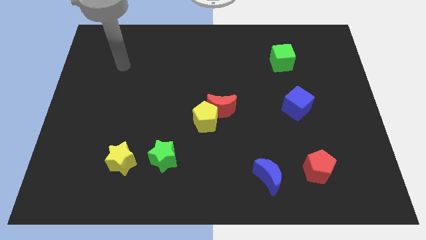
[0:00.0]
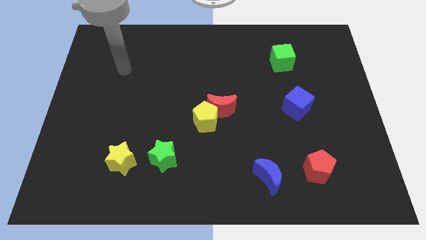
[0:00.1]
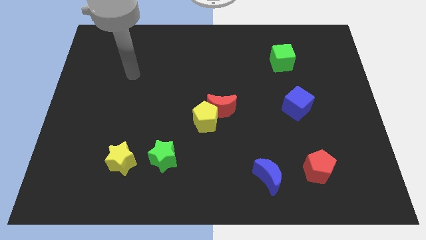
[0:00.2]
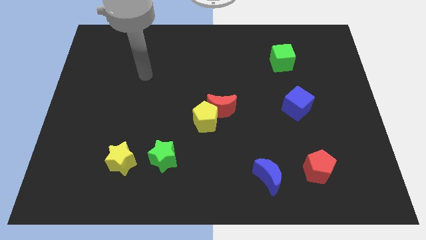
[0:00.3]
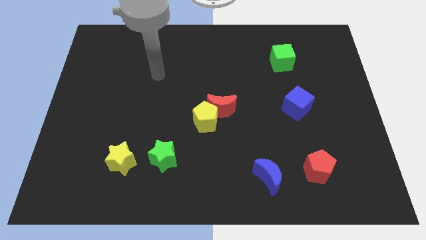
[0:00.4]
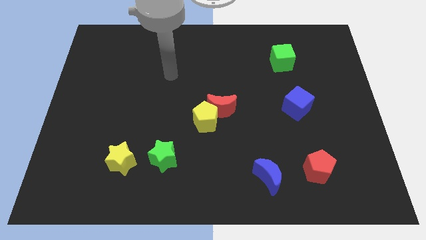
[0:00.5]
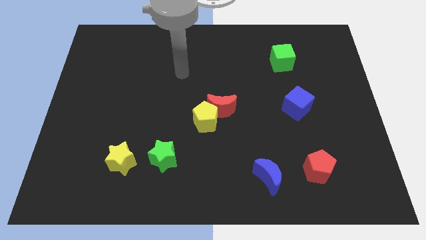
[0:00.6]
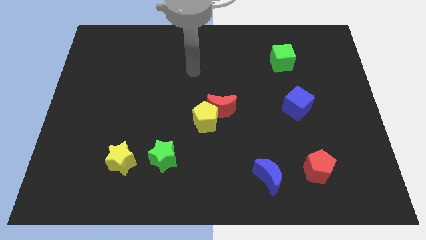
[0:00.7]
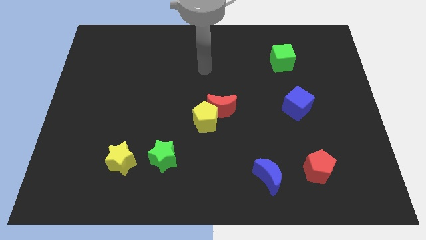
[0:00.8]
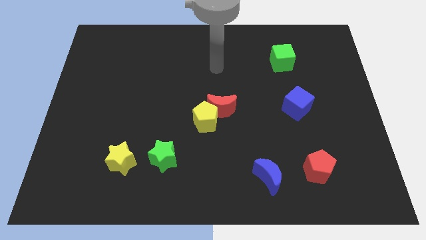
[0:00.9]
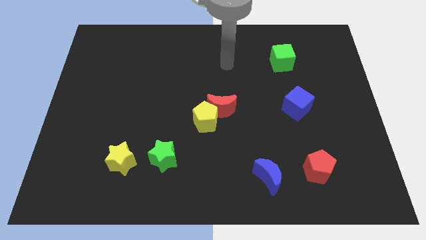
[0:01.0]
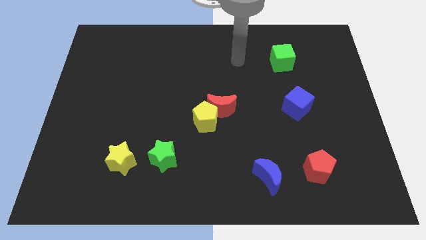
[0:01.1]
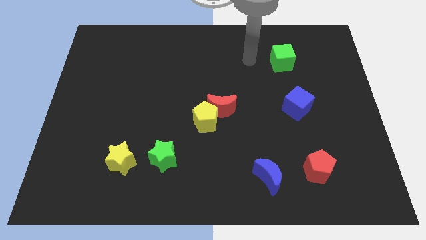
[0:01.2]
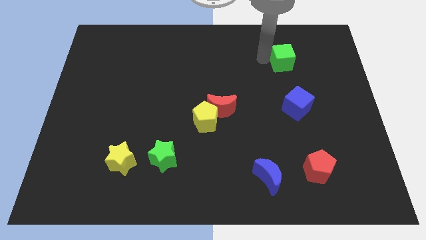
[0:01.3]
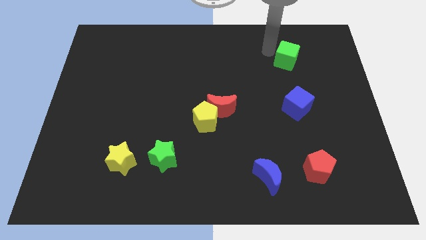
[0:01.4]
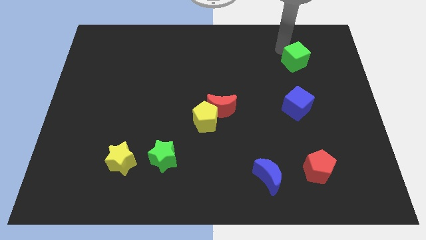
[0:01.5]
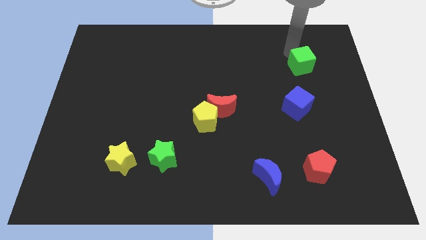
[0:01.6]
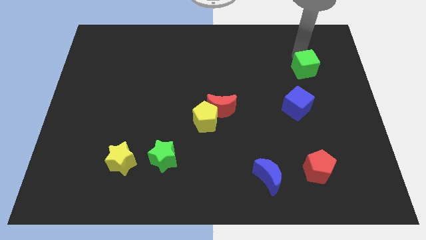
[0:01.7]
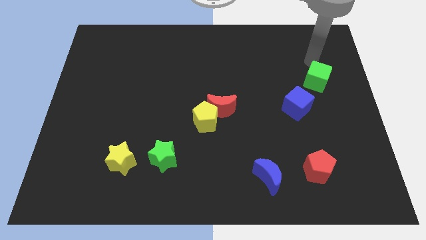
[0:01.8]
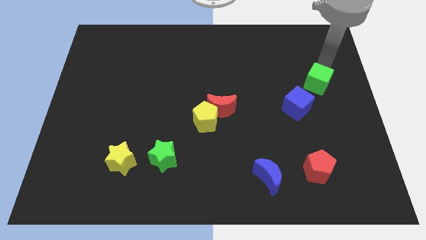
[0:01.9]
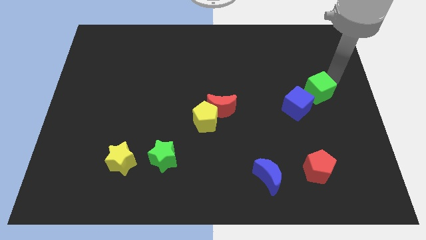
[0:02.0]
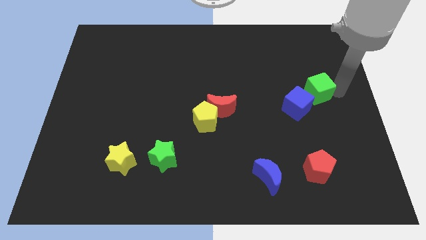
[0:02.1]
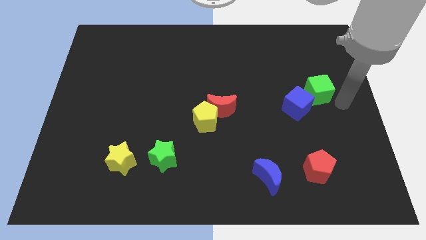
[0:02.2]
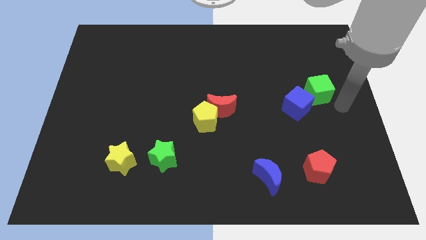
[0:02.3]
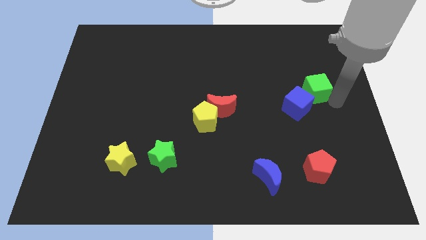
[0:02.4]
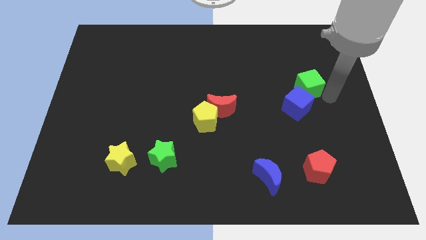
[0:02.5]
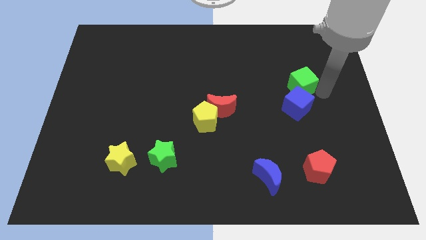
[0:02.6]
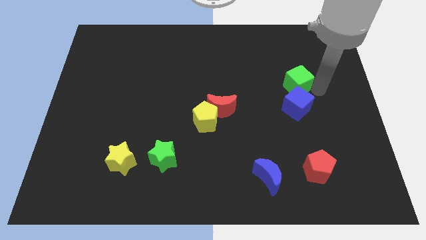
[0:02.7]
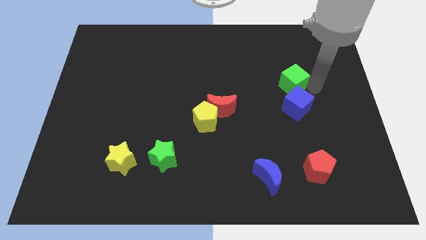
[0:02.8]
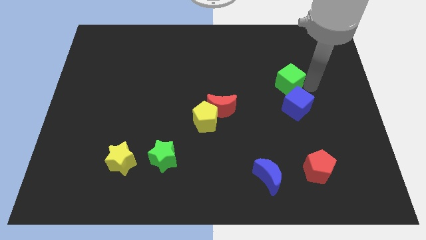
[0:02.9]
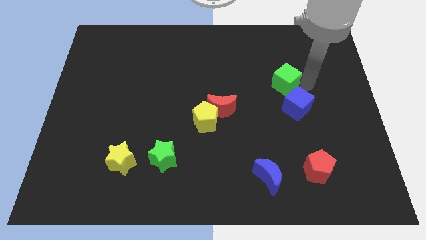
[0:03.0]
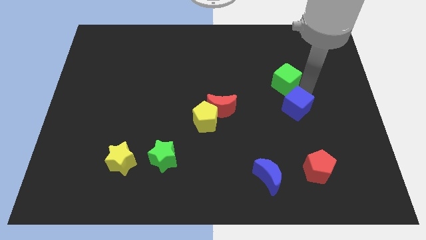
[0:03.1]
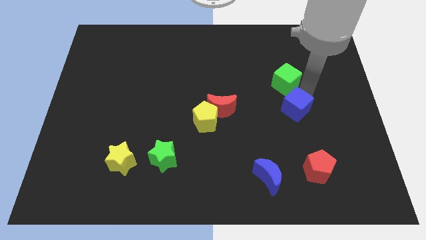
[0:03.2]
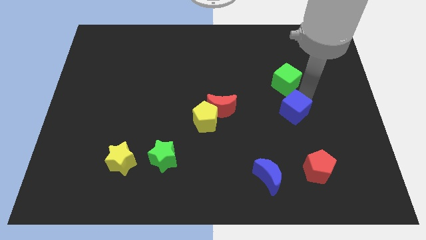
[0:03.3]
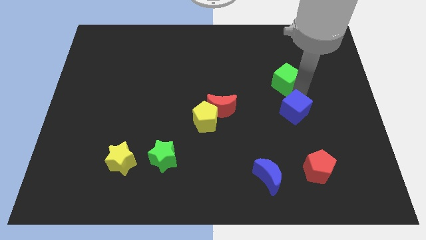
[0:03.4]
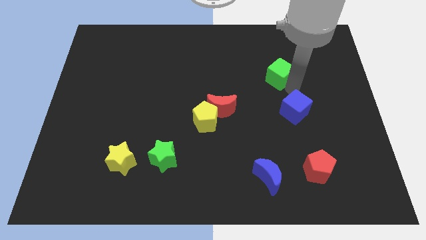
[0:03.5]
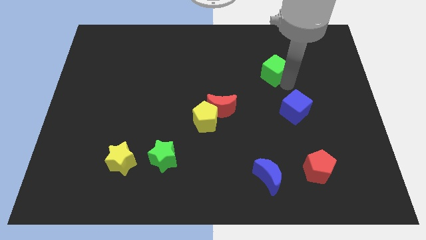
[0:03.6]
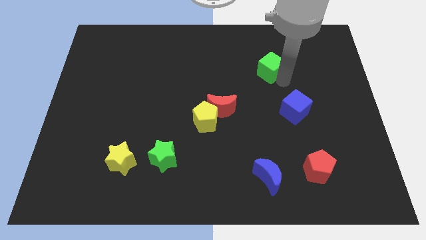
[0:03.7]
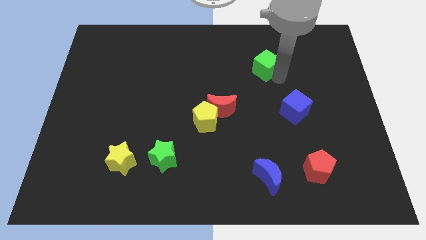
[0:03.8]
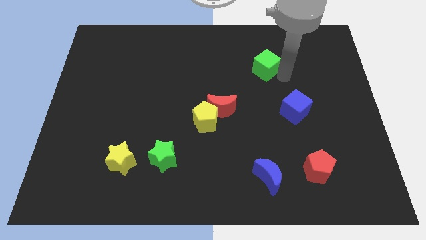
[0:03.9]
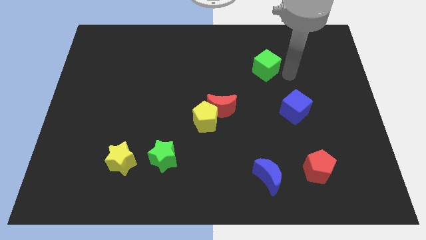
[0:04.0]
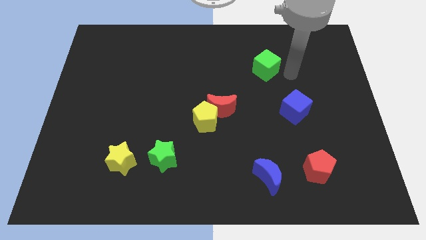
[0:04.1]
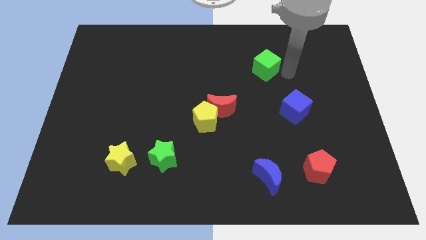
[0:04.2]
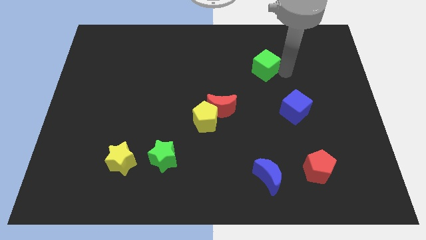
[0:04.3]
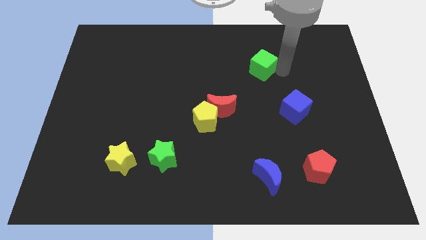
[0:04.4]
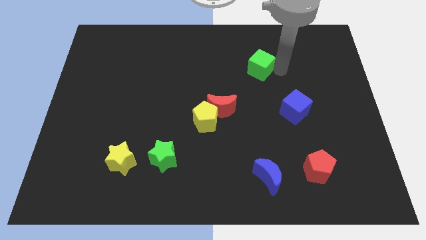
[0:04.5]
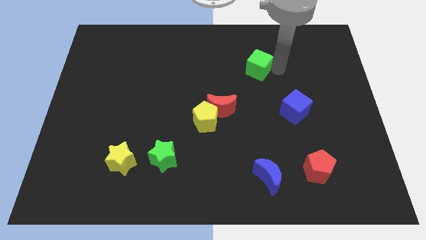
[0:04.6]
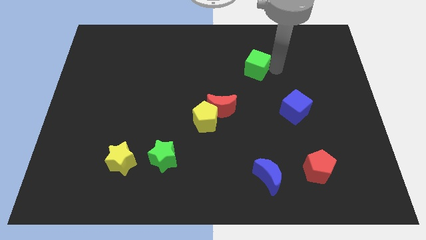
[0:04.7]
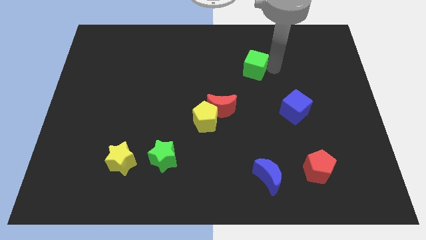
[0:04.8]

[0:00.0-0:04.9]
slightly move the green cube left

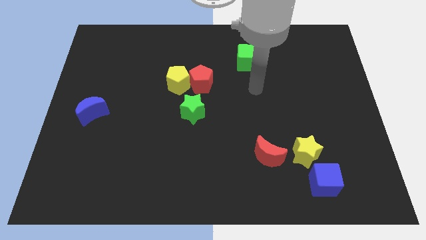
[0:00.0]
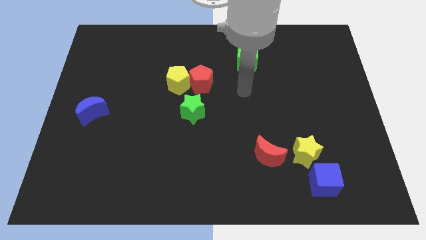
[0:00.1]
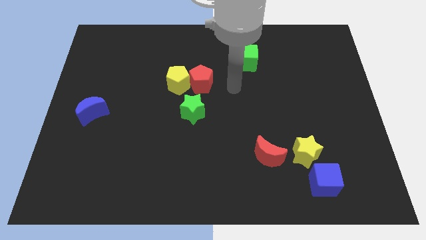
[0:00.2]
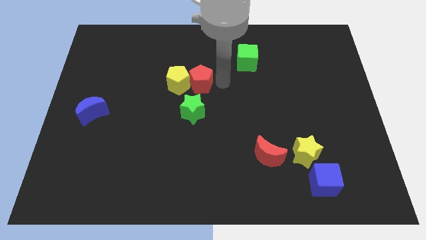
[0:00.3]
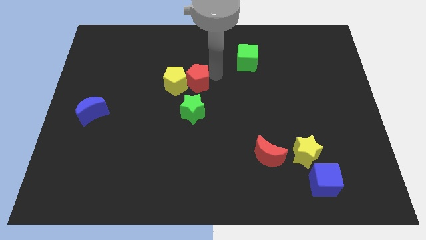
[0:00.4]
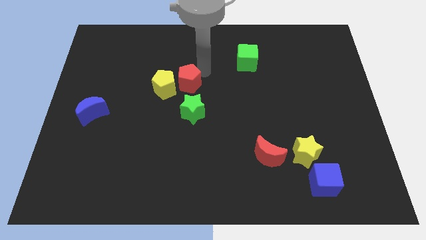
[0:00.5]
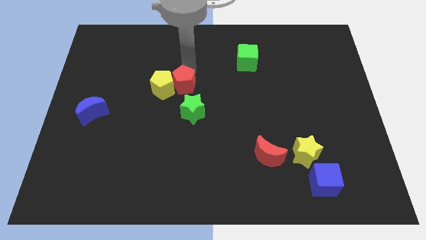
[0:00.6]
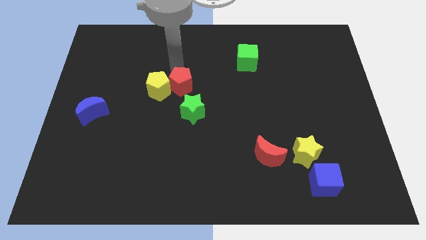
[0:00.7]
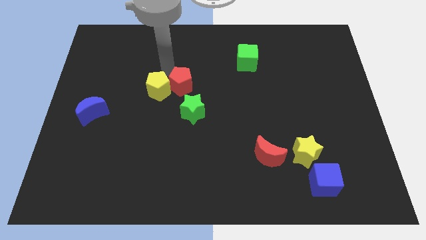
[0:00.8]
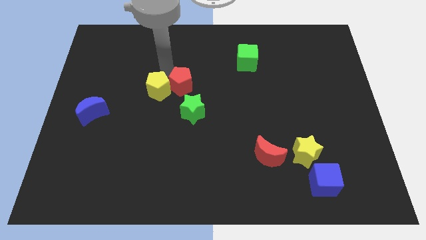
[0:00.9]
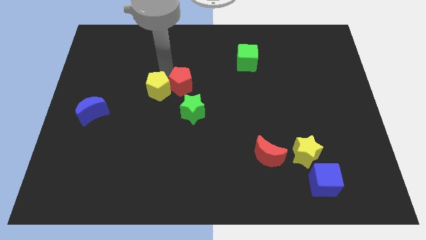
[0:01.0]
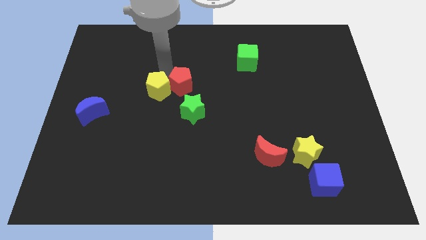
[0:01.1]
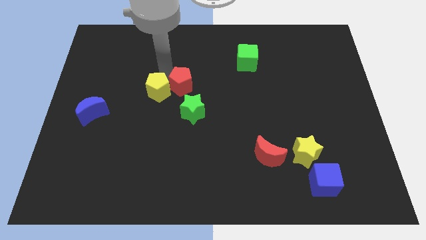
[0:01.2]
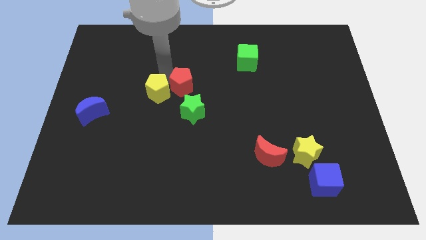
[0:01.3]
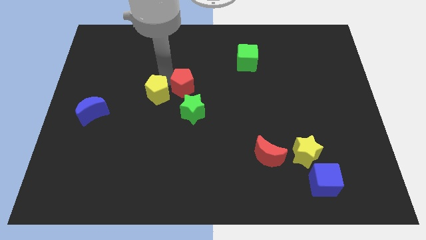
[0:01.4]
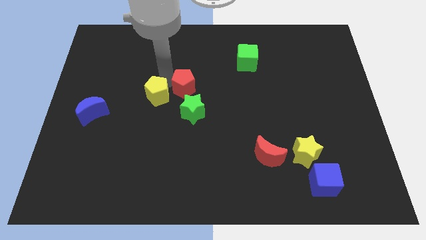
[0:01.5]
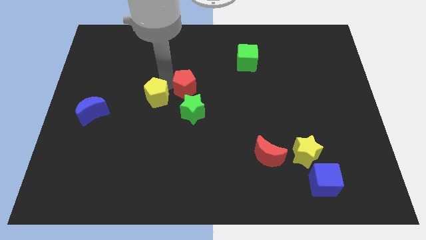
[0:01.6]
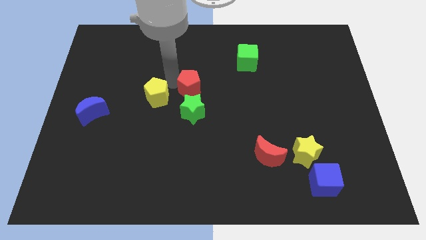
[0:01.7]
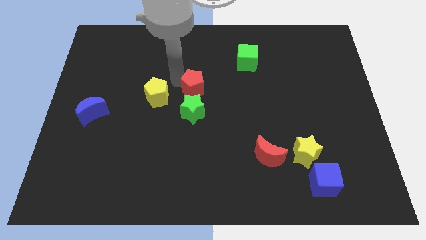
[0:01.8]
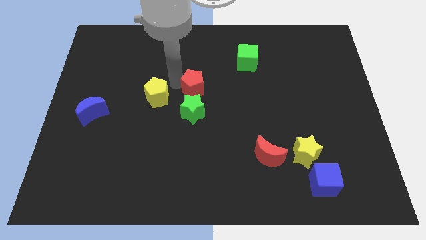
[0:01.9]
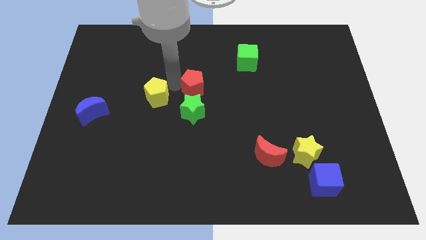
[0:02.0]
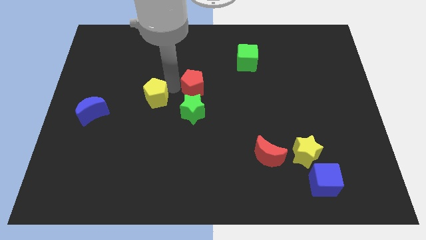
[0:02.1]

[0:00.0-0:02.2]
slide the yellow pentagon downwards and then to the left a little

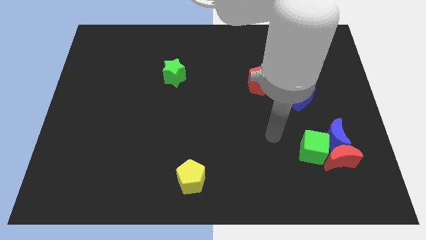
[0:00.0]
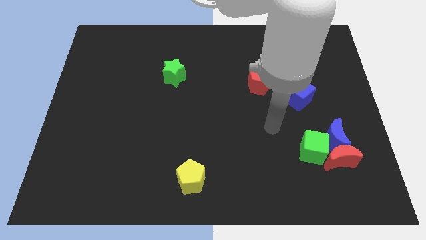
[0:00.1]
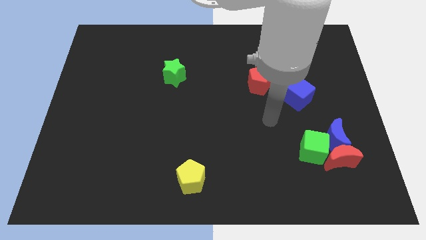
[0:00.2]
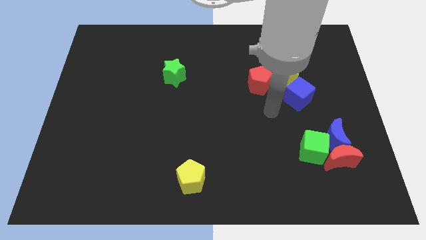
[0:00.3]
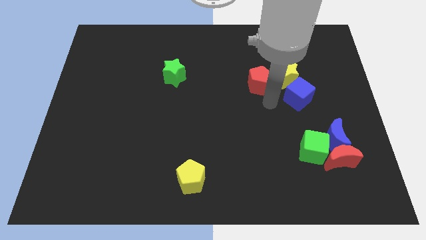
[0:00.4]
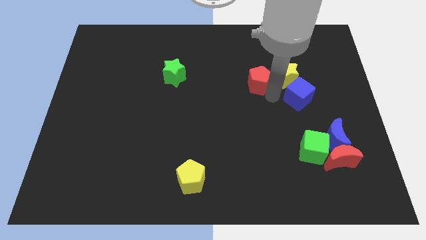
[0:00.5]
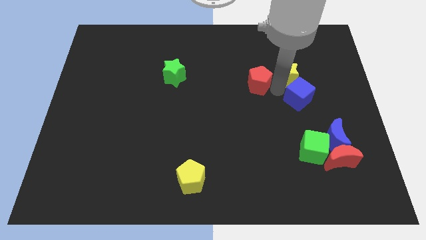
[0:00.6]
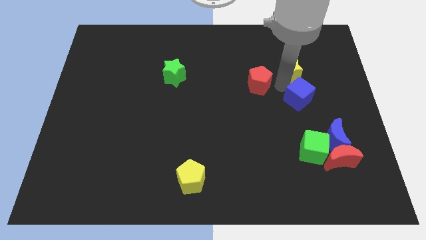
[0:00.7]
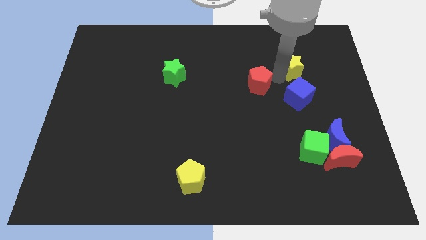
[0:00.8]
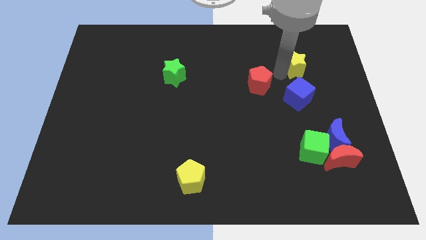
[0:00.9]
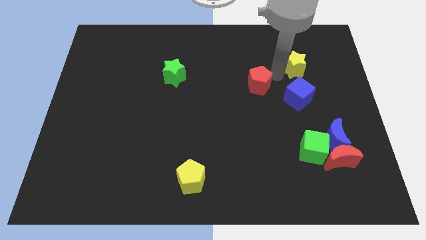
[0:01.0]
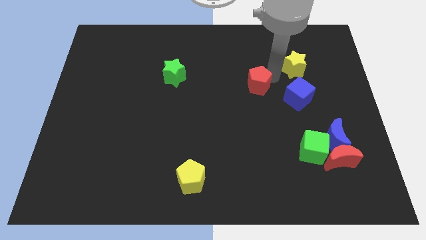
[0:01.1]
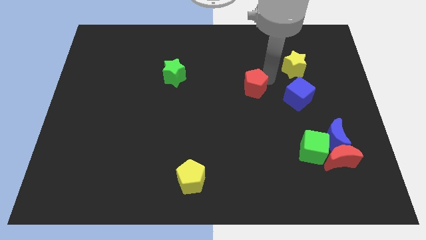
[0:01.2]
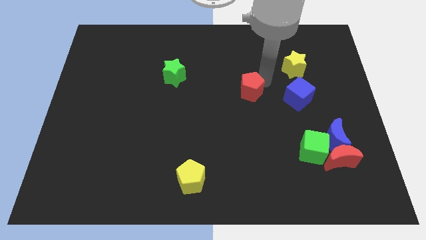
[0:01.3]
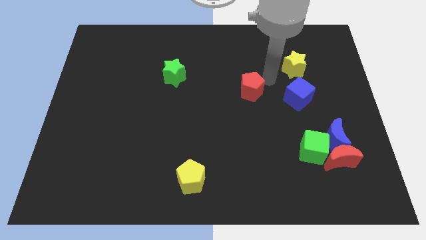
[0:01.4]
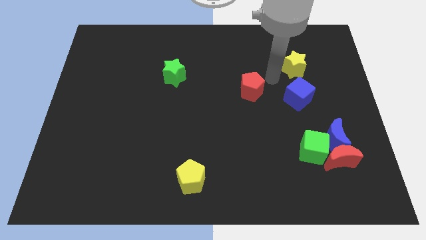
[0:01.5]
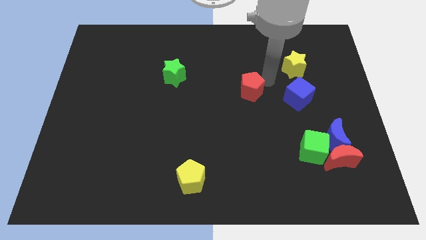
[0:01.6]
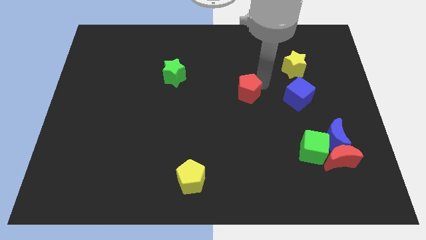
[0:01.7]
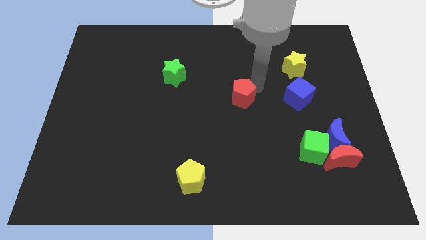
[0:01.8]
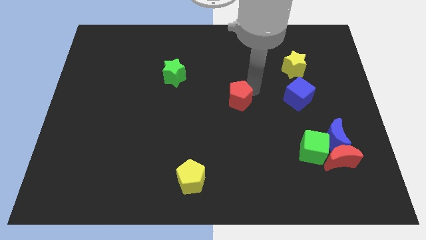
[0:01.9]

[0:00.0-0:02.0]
slightly push the red pentagon diagonally down and to the left
